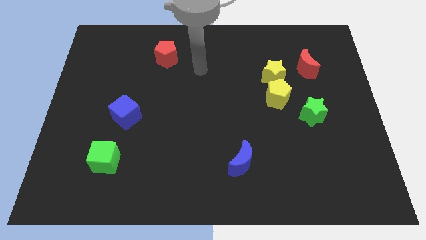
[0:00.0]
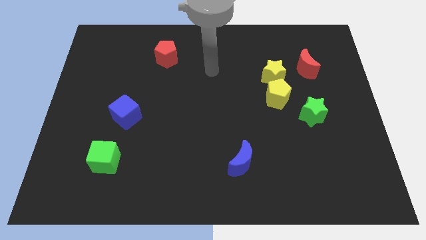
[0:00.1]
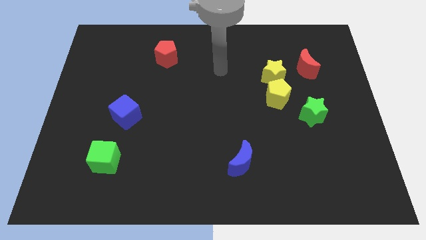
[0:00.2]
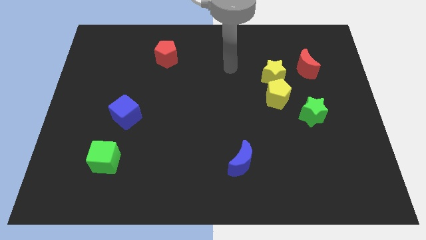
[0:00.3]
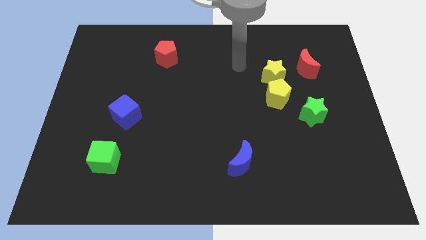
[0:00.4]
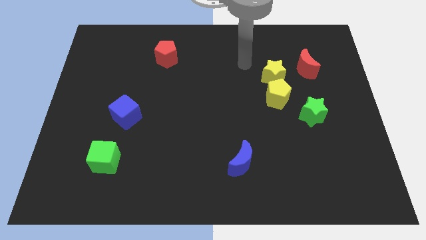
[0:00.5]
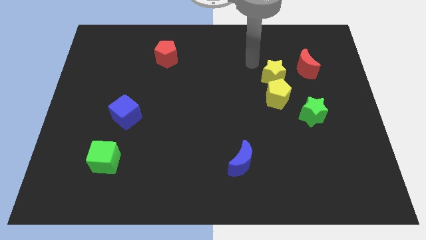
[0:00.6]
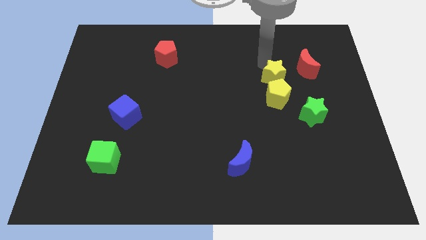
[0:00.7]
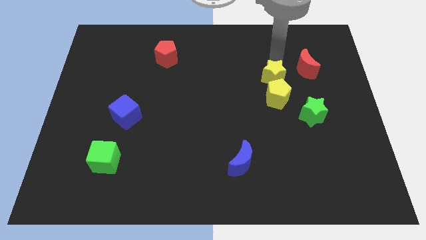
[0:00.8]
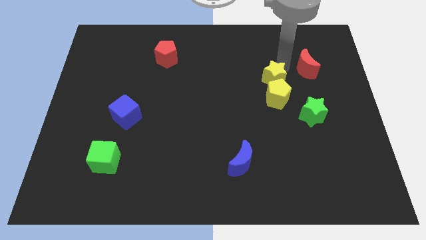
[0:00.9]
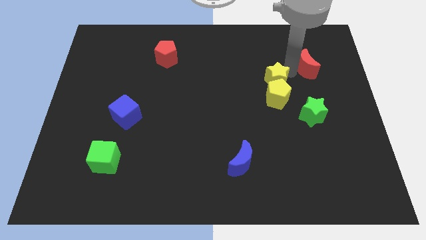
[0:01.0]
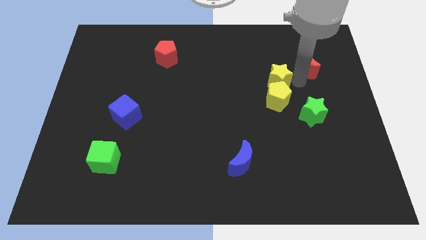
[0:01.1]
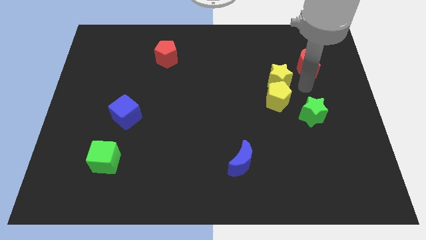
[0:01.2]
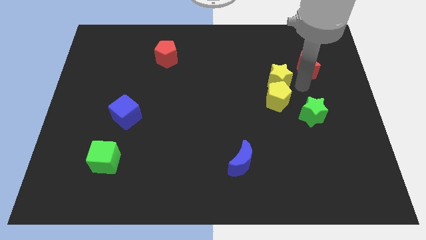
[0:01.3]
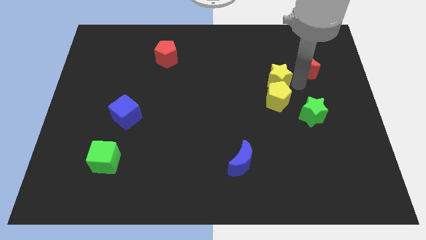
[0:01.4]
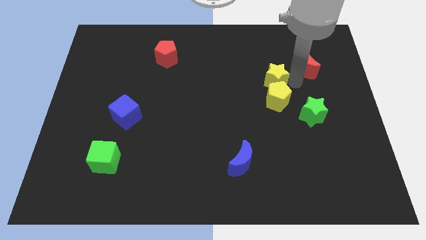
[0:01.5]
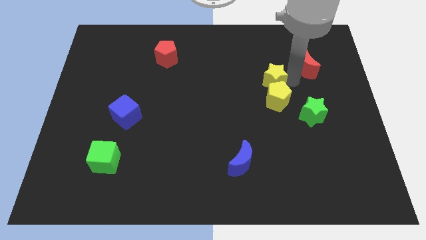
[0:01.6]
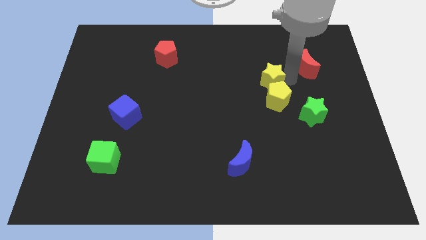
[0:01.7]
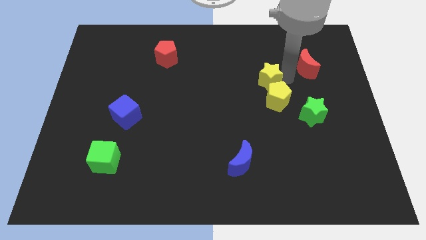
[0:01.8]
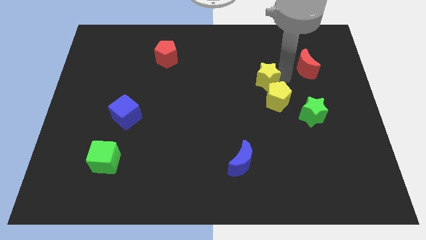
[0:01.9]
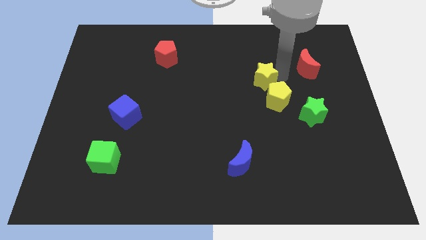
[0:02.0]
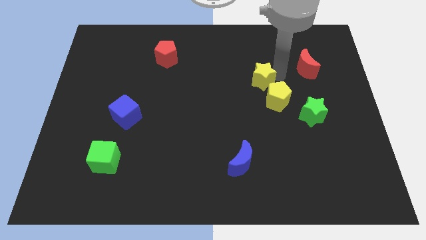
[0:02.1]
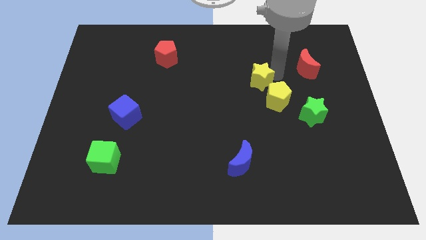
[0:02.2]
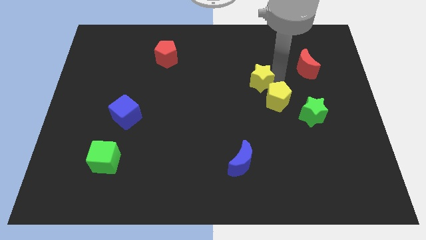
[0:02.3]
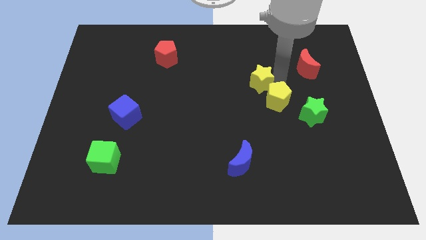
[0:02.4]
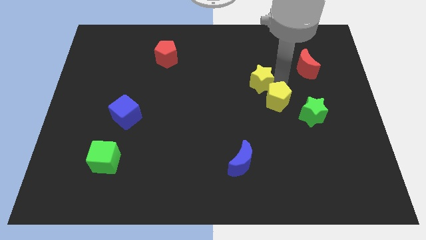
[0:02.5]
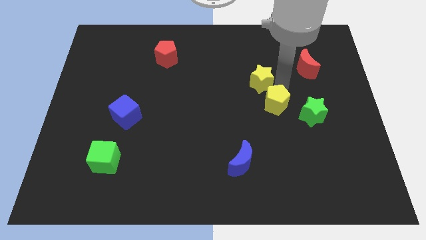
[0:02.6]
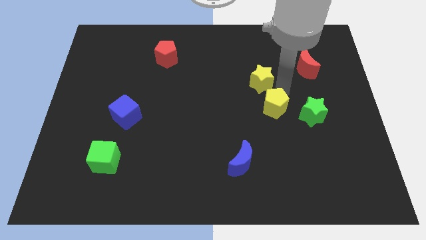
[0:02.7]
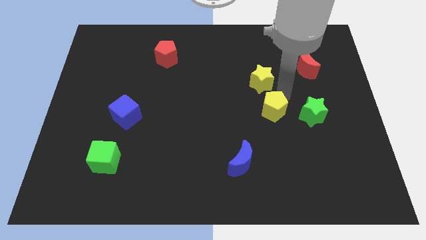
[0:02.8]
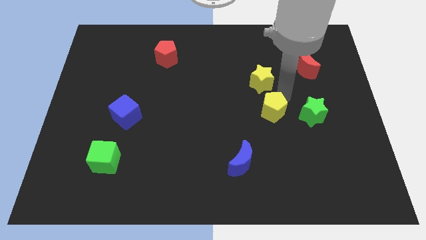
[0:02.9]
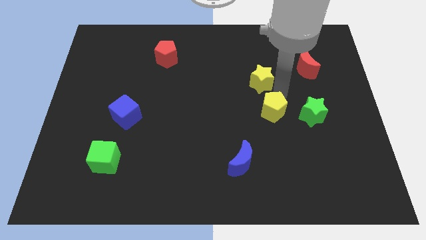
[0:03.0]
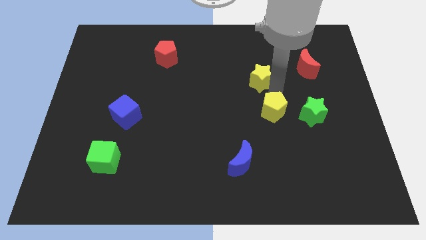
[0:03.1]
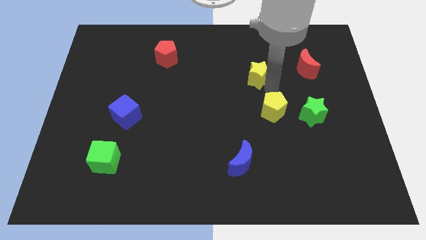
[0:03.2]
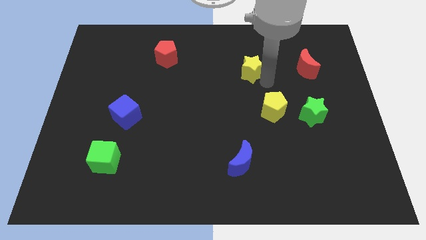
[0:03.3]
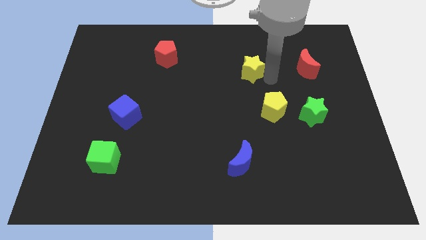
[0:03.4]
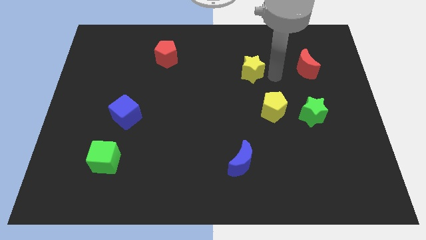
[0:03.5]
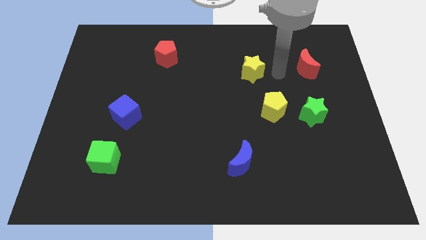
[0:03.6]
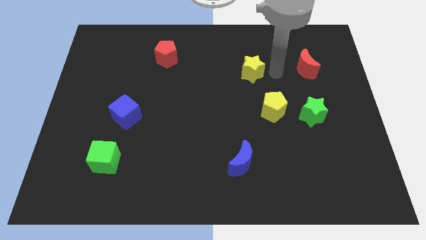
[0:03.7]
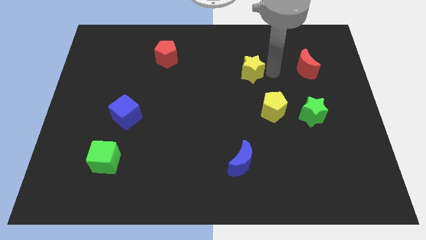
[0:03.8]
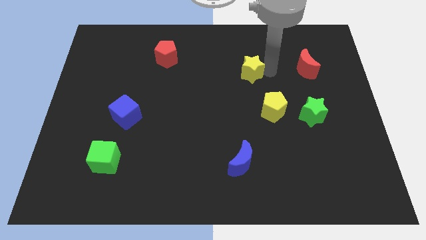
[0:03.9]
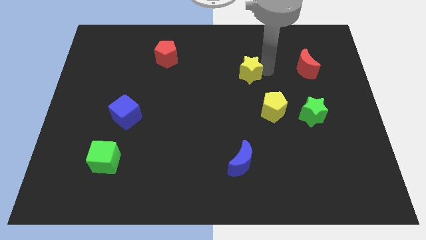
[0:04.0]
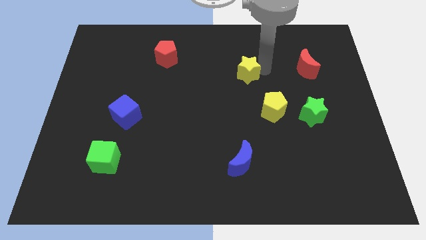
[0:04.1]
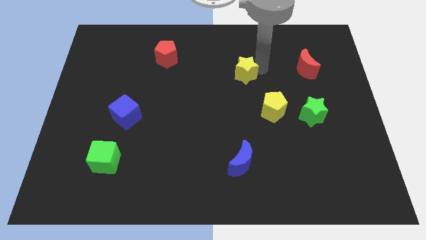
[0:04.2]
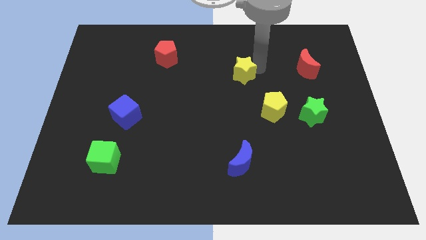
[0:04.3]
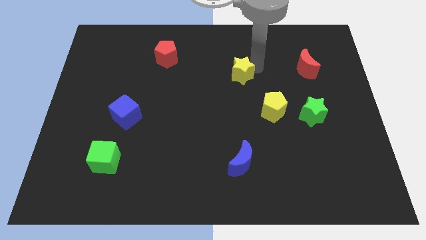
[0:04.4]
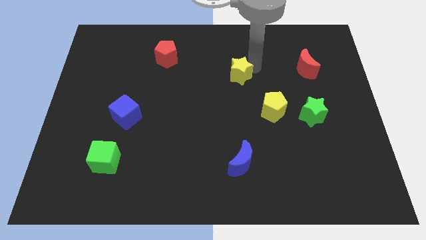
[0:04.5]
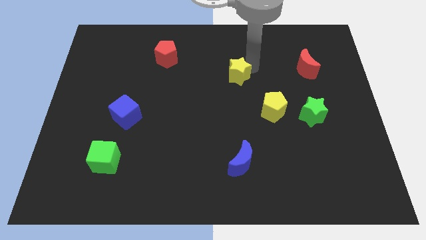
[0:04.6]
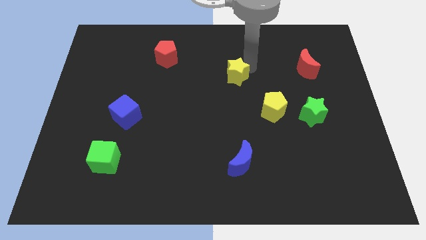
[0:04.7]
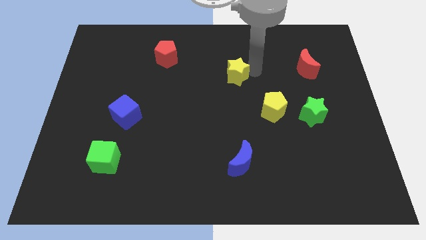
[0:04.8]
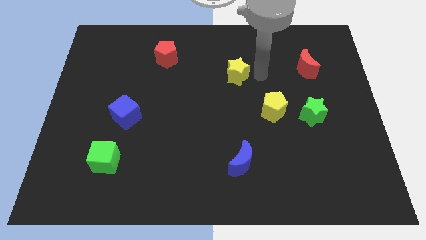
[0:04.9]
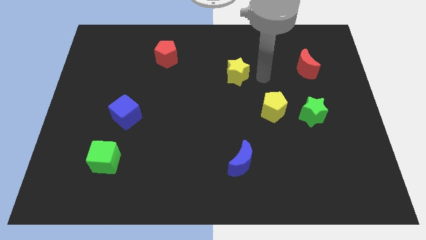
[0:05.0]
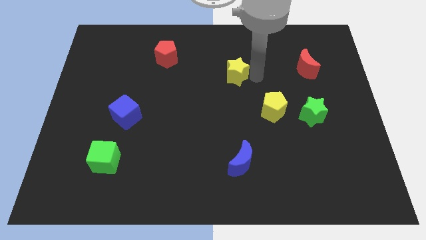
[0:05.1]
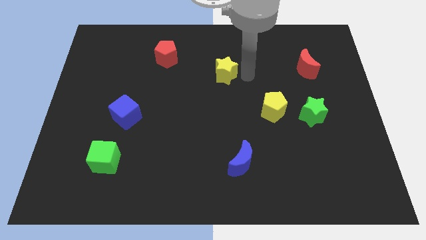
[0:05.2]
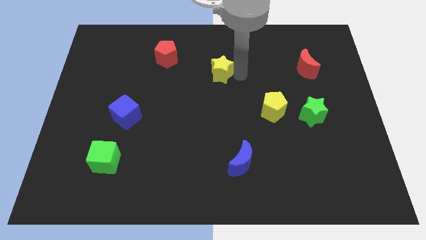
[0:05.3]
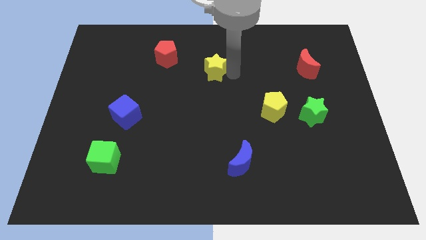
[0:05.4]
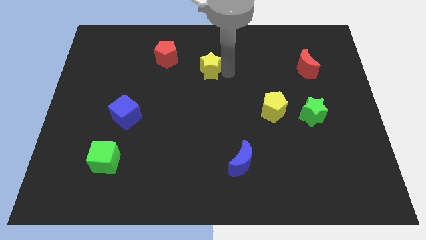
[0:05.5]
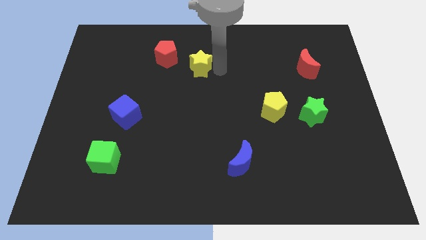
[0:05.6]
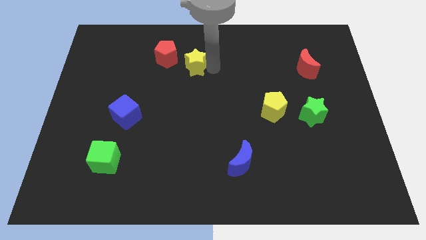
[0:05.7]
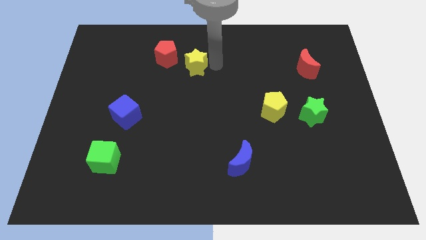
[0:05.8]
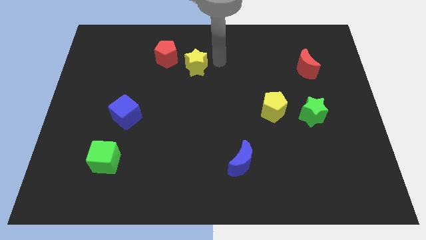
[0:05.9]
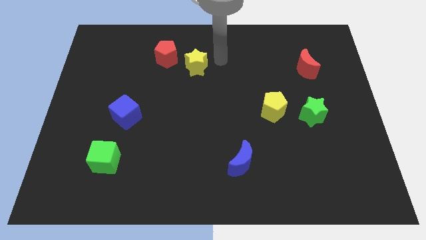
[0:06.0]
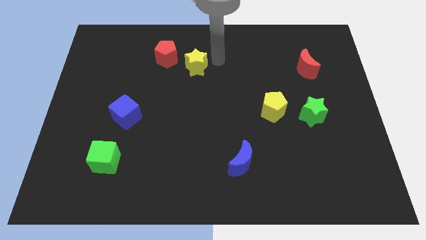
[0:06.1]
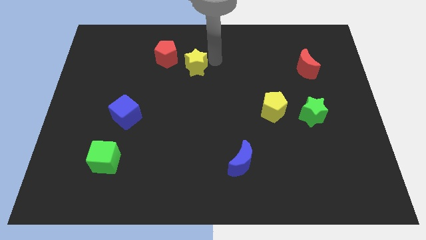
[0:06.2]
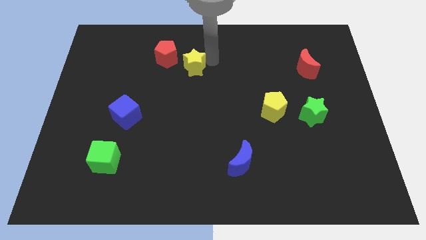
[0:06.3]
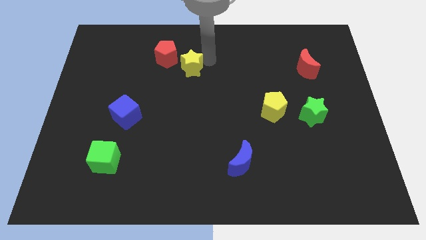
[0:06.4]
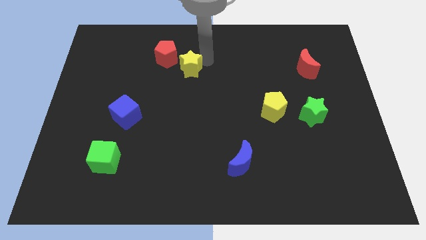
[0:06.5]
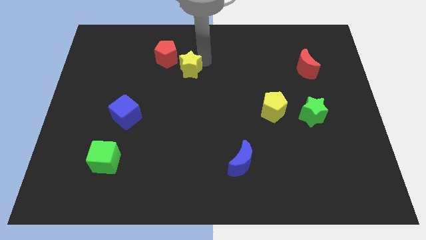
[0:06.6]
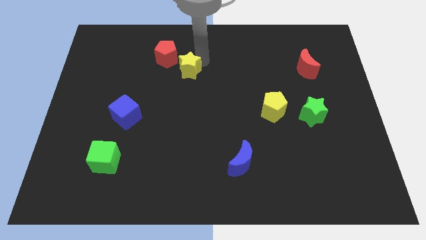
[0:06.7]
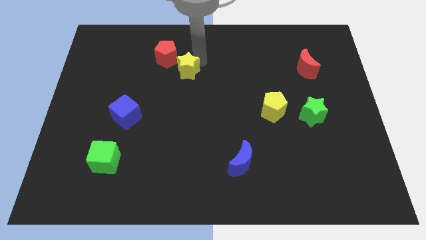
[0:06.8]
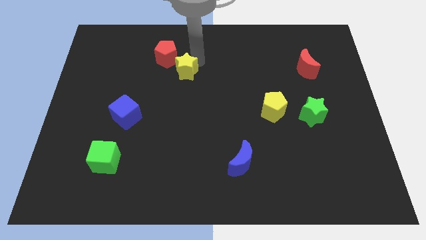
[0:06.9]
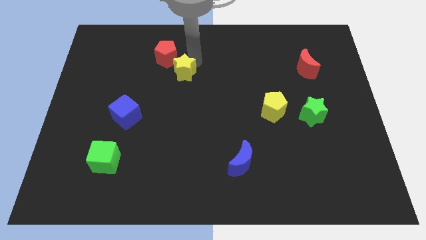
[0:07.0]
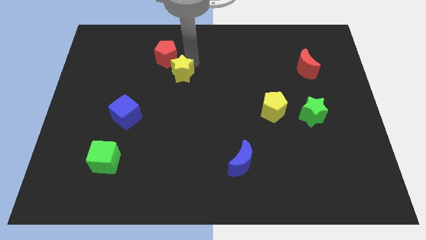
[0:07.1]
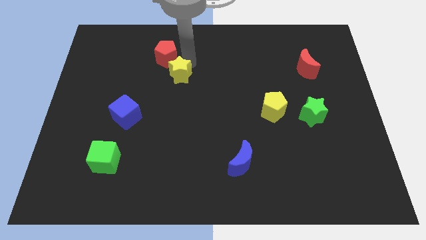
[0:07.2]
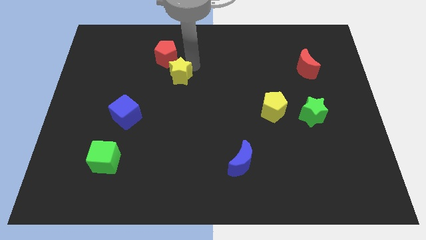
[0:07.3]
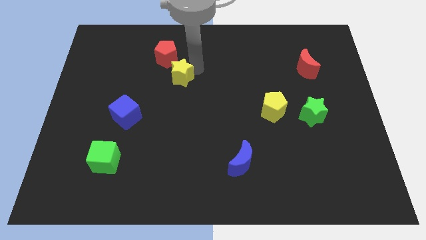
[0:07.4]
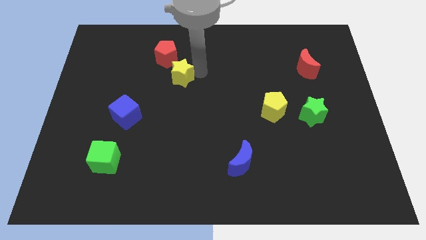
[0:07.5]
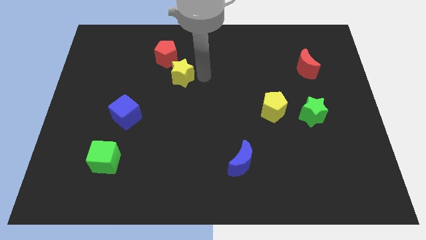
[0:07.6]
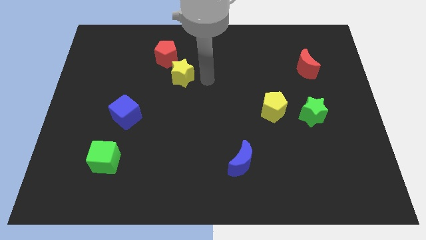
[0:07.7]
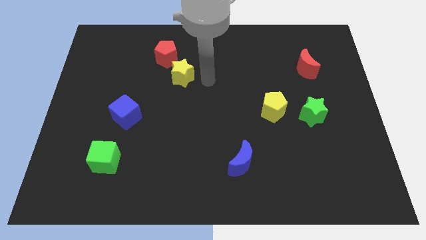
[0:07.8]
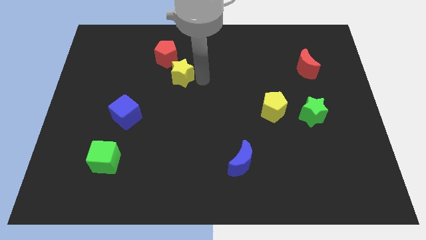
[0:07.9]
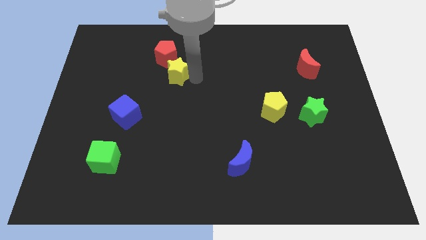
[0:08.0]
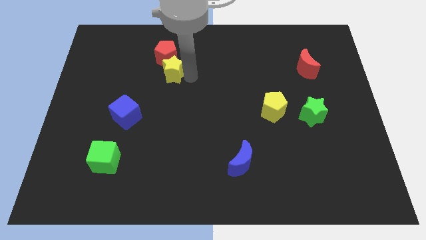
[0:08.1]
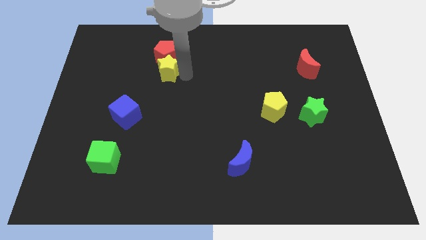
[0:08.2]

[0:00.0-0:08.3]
put the yellow star to the bottom left of the red pentagon
